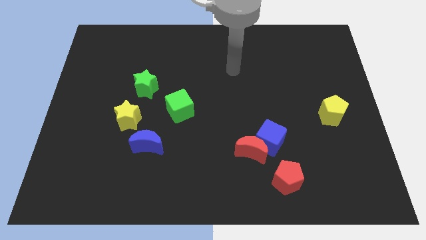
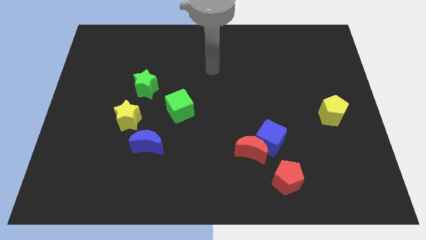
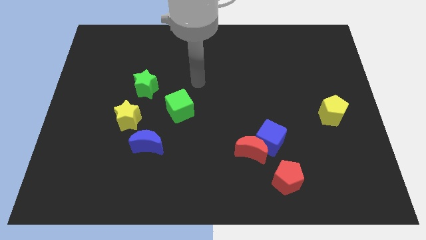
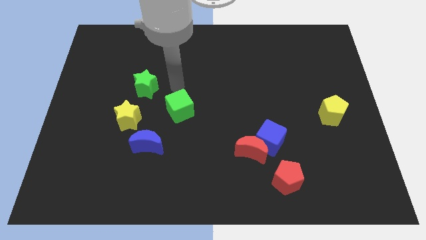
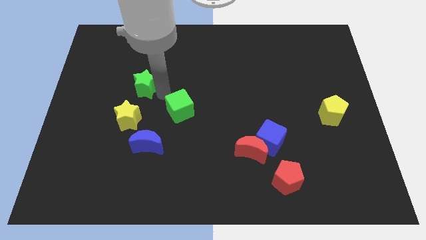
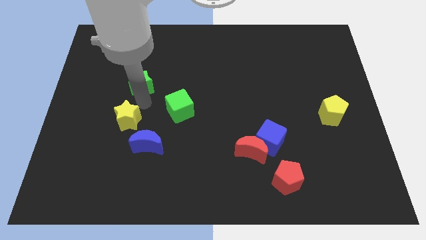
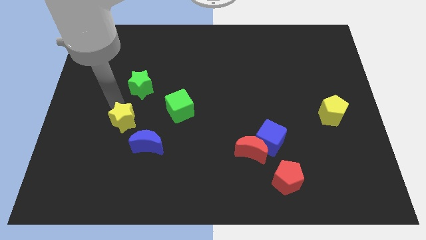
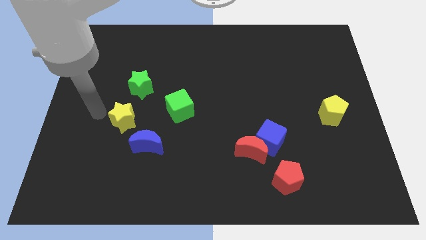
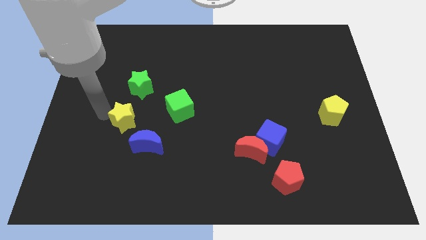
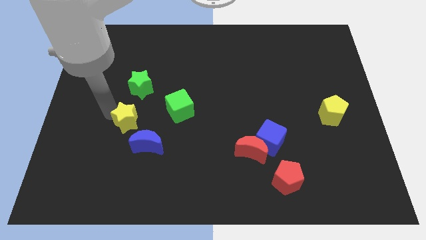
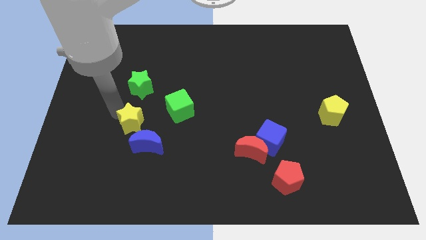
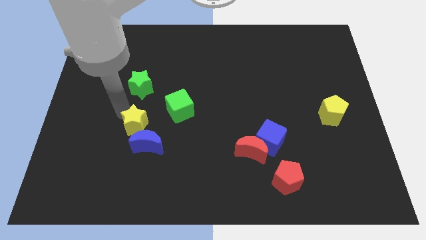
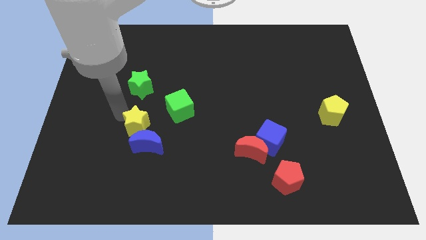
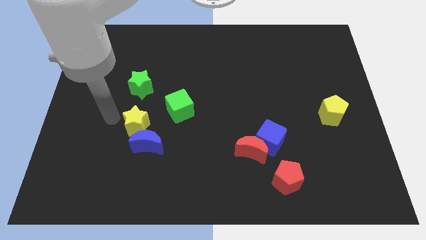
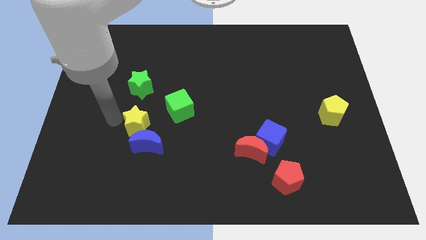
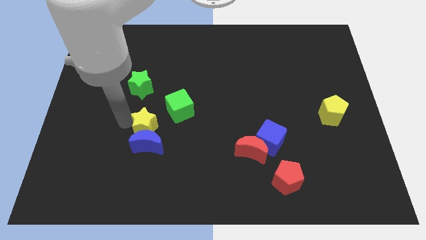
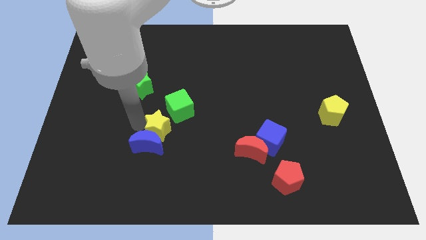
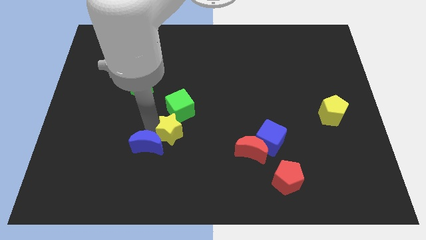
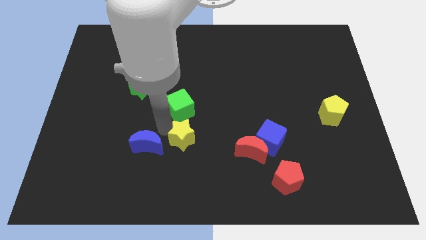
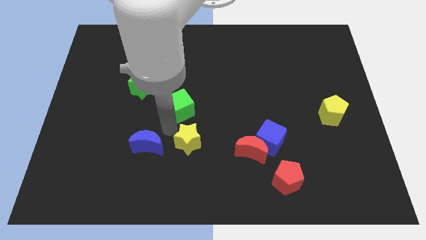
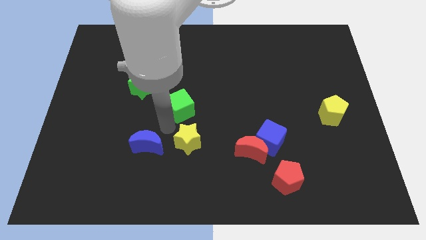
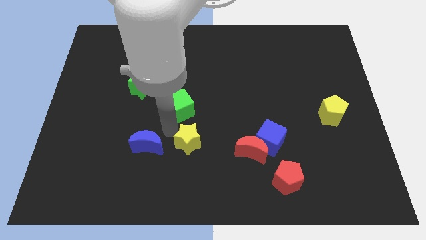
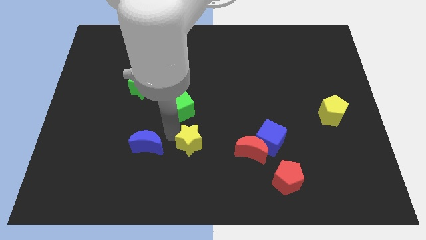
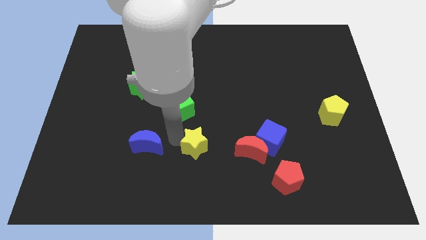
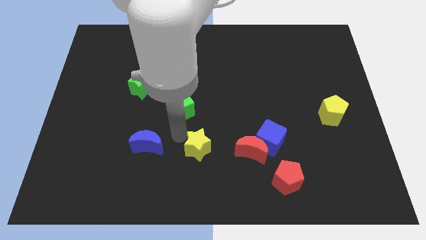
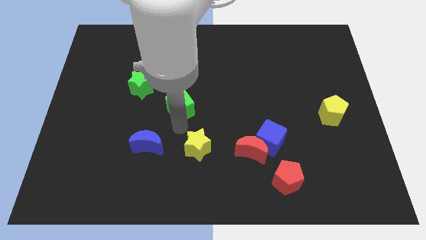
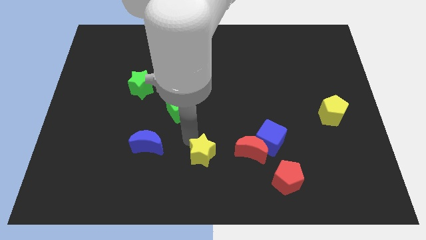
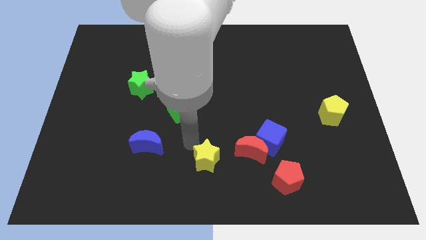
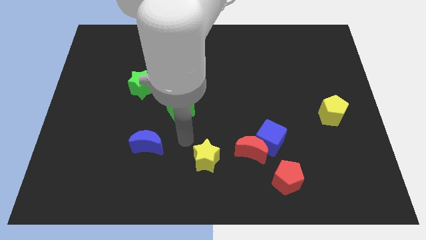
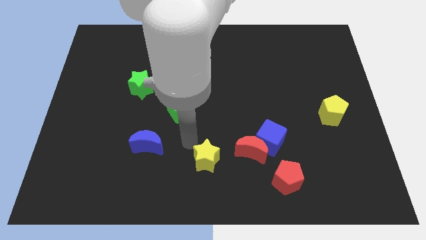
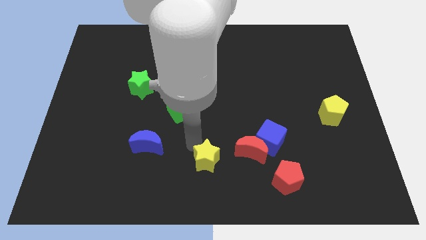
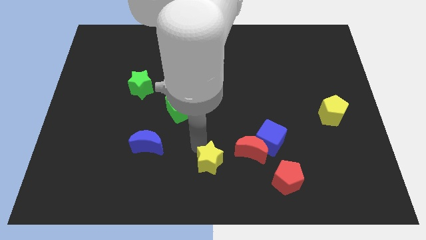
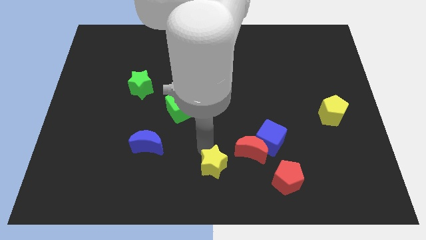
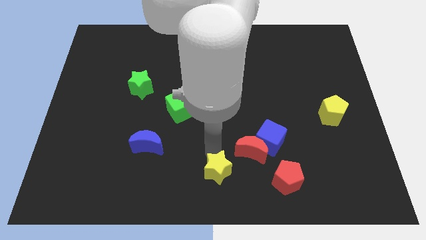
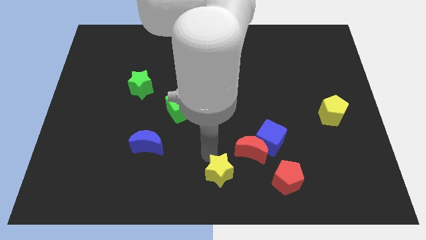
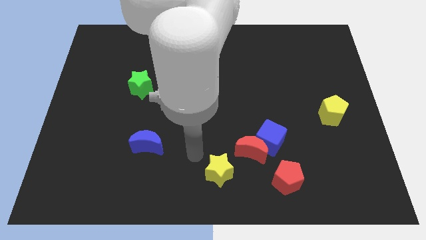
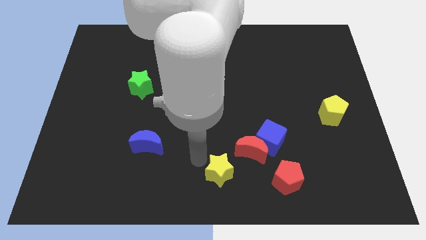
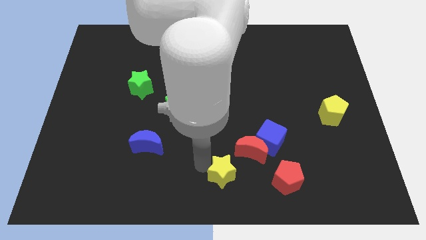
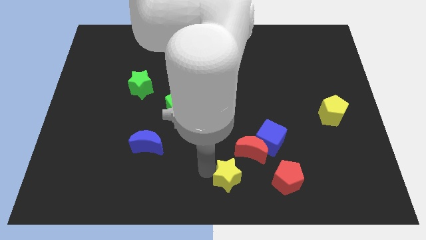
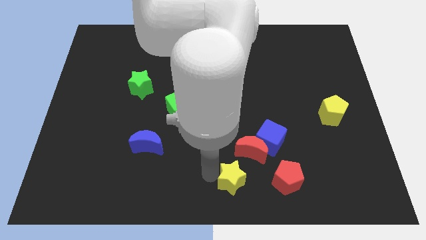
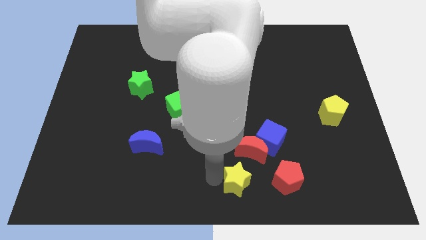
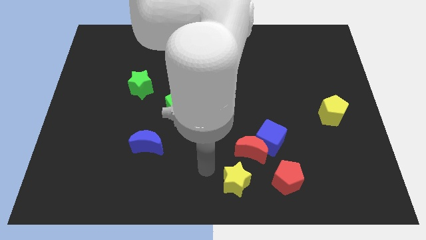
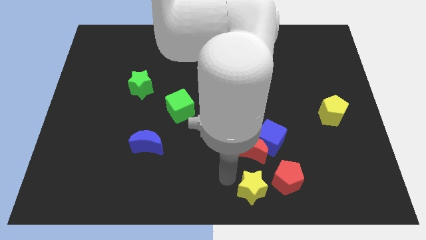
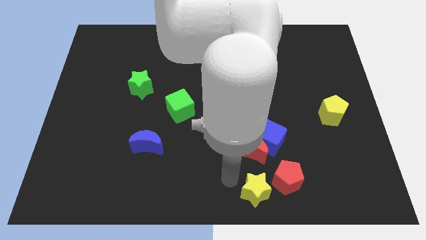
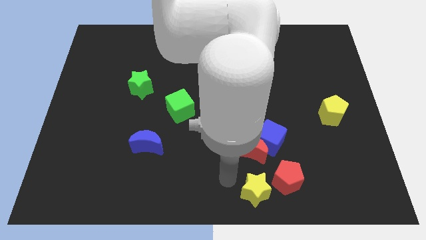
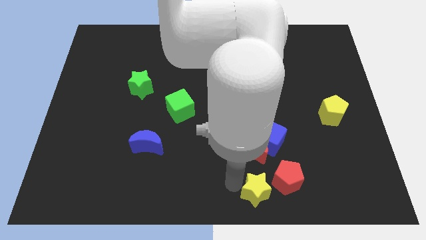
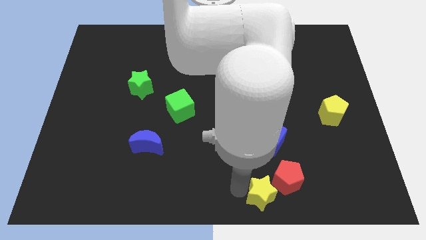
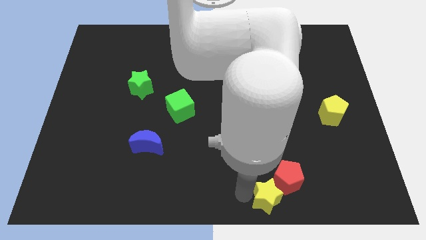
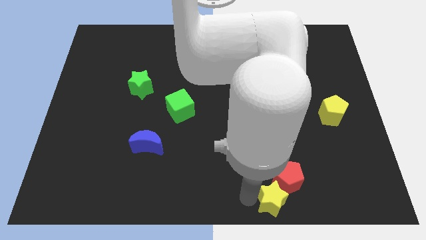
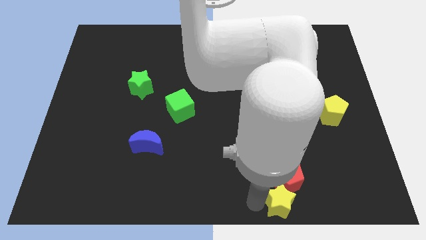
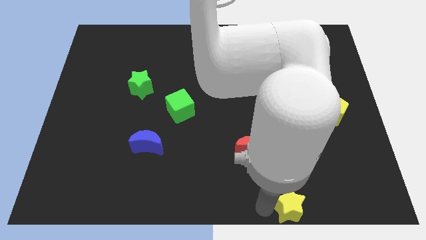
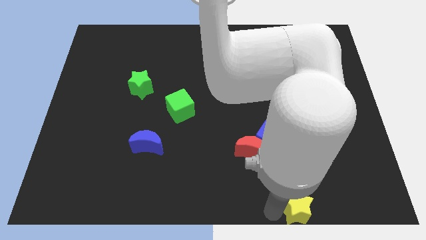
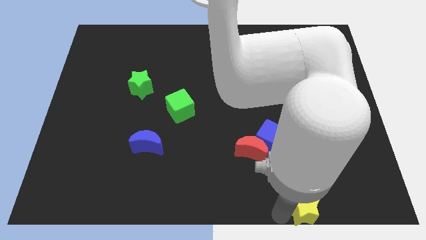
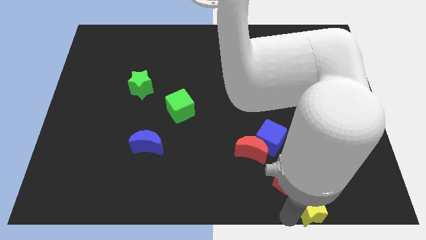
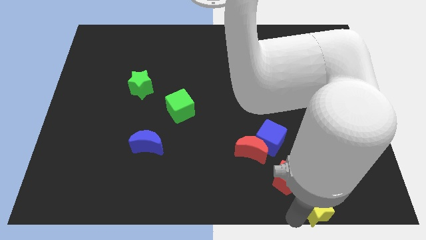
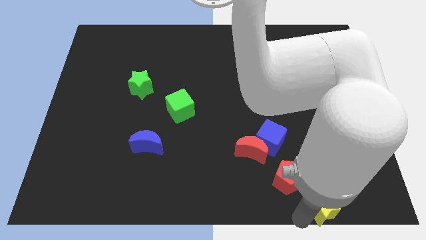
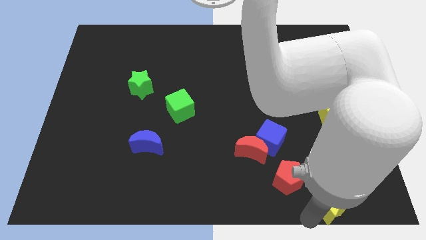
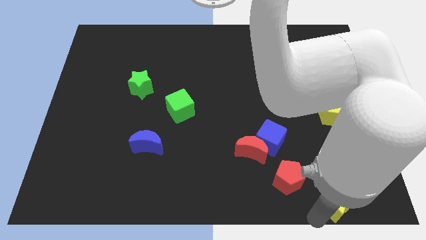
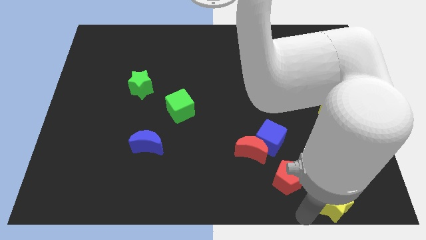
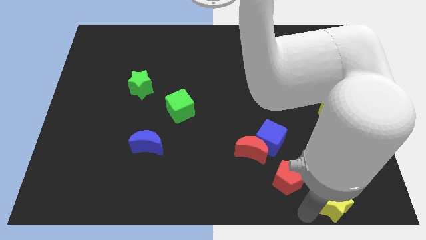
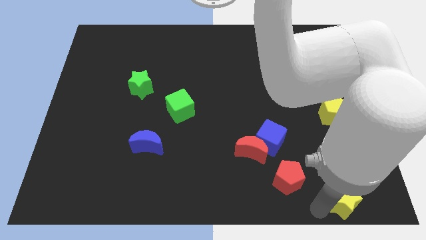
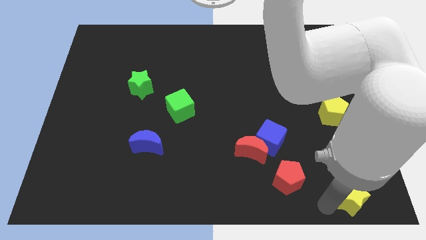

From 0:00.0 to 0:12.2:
move the yellow star to the bottom right corner

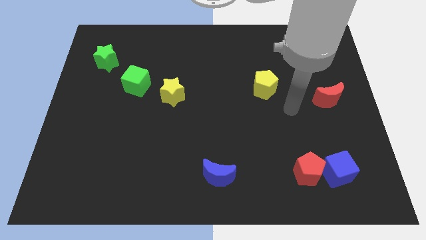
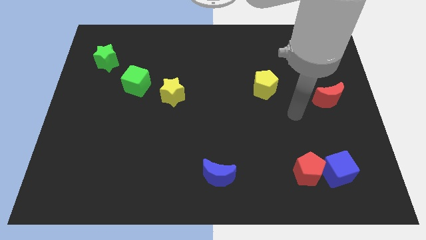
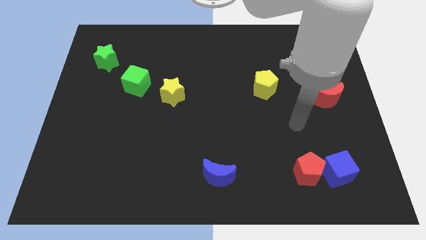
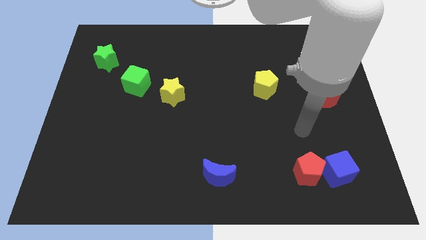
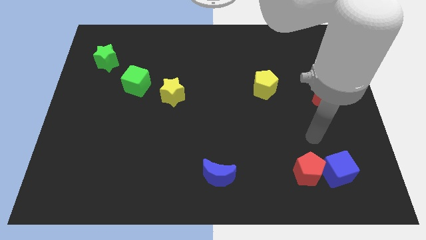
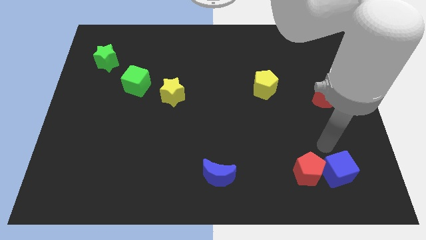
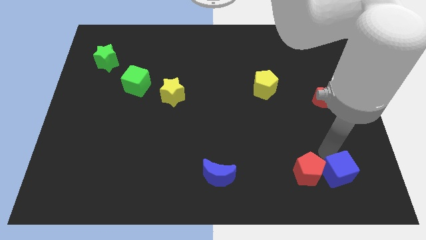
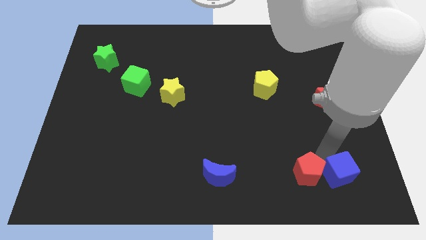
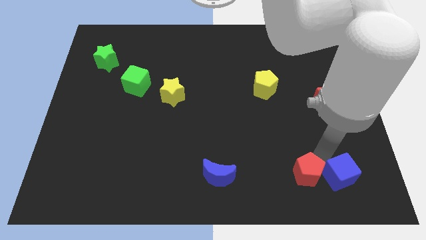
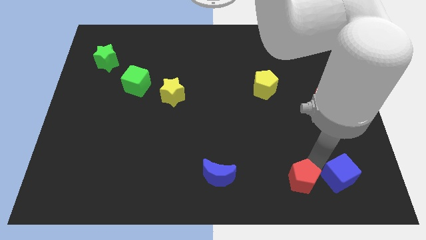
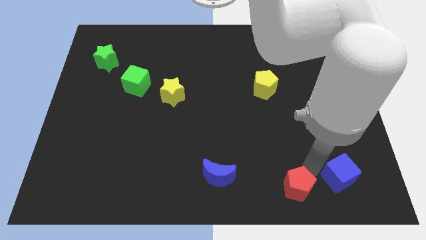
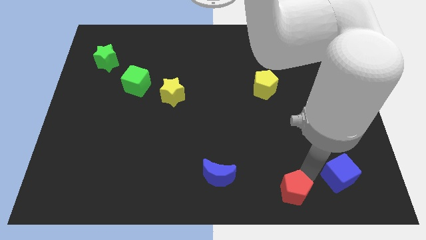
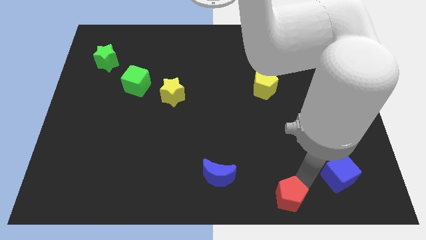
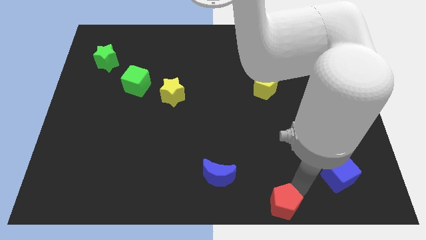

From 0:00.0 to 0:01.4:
slide the red pentagon to the bottom
